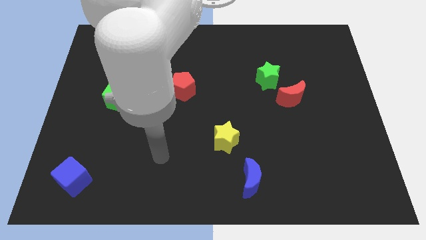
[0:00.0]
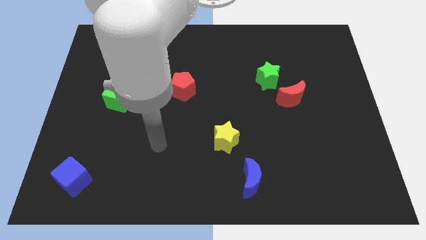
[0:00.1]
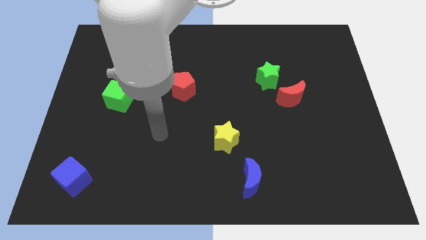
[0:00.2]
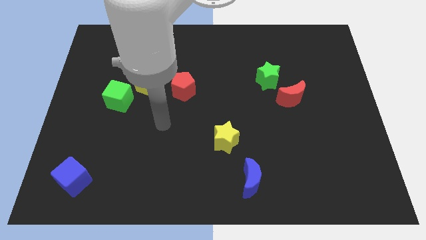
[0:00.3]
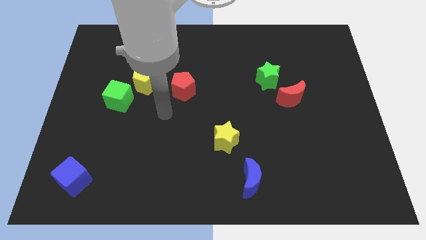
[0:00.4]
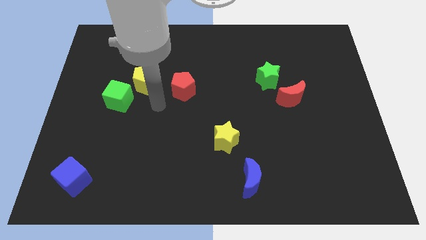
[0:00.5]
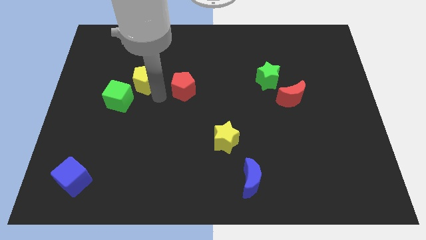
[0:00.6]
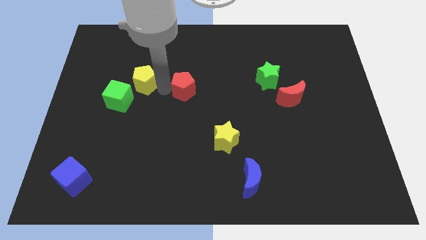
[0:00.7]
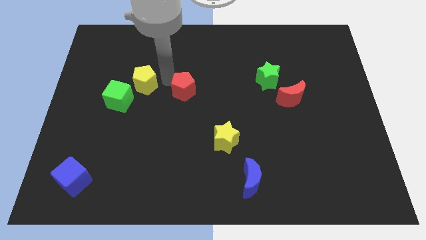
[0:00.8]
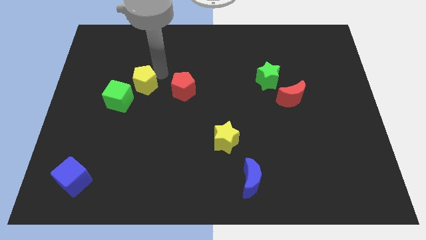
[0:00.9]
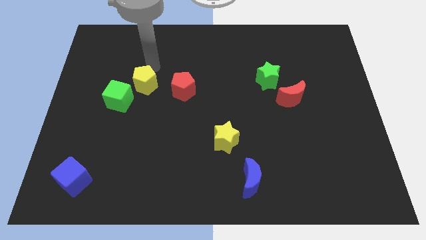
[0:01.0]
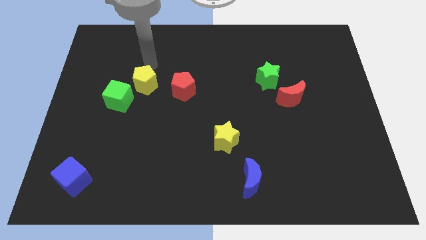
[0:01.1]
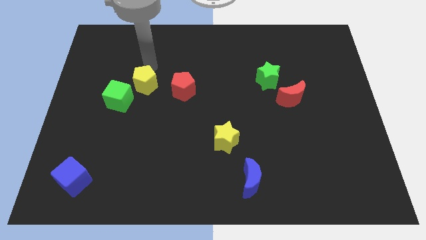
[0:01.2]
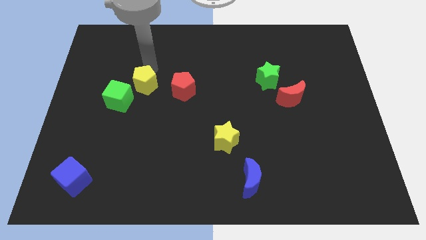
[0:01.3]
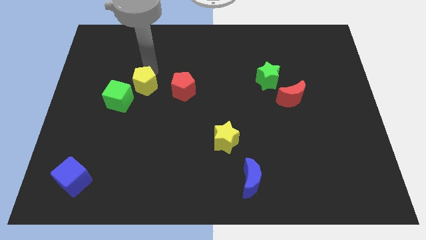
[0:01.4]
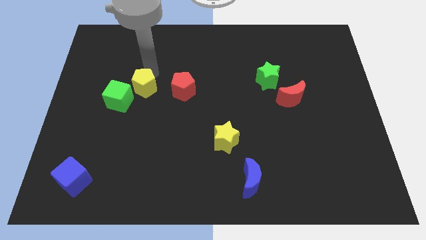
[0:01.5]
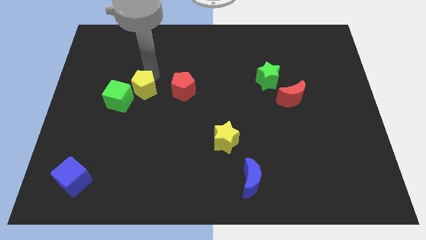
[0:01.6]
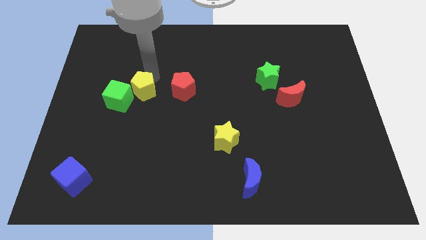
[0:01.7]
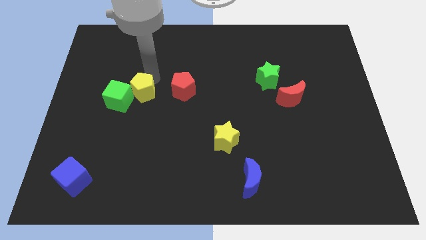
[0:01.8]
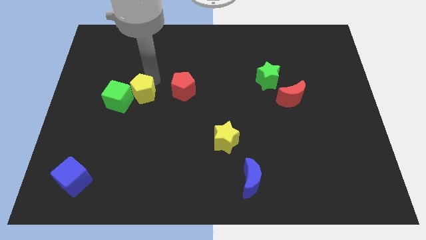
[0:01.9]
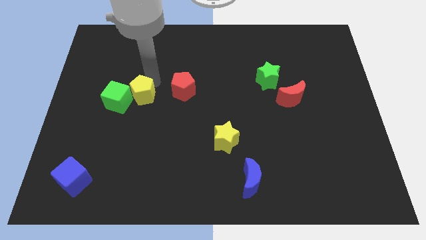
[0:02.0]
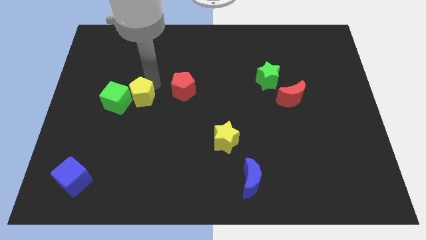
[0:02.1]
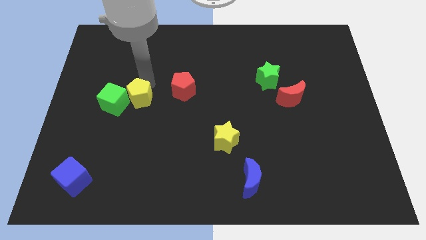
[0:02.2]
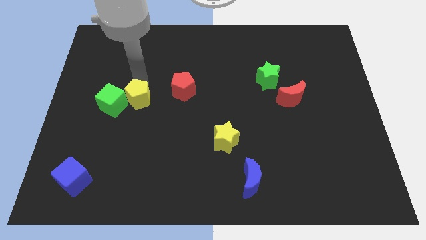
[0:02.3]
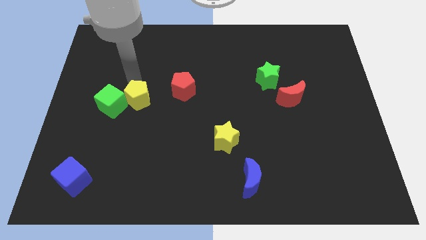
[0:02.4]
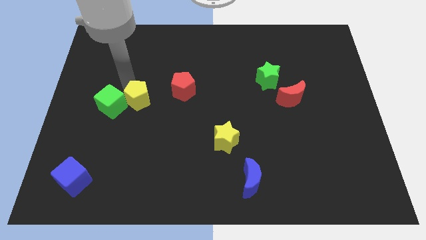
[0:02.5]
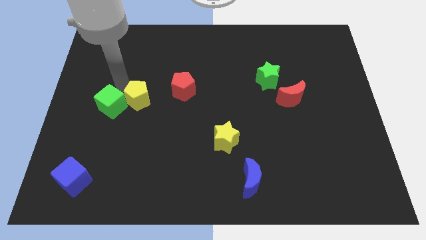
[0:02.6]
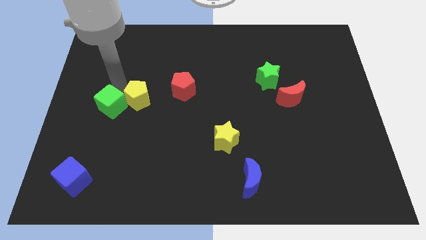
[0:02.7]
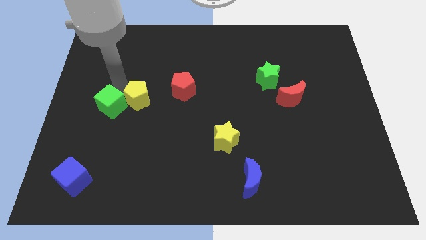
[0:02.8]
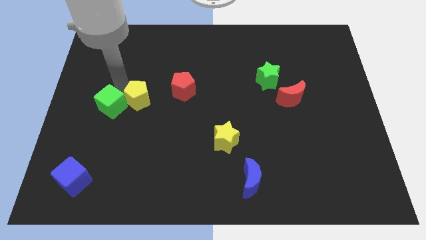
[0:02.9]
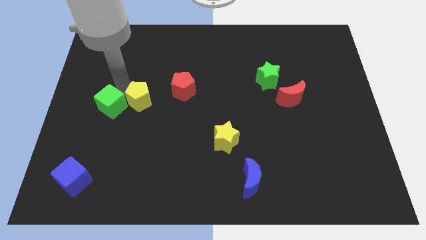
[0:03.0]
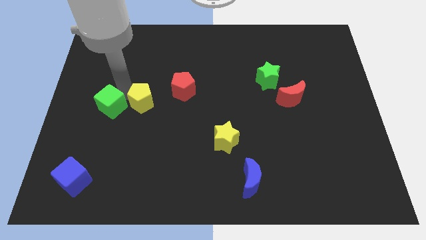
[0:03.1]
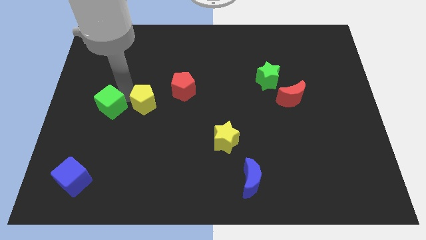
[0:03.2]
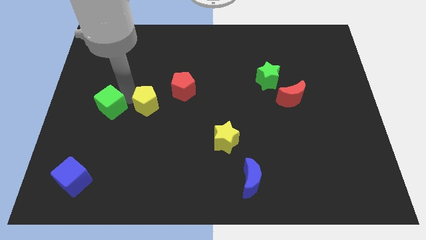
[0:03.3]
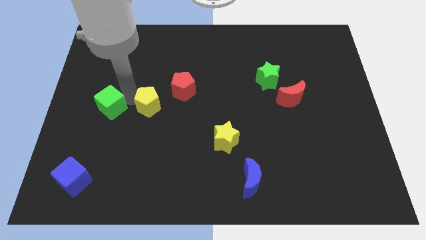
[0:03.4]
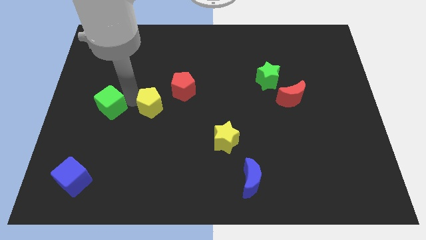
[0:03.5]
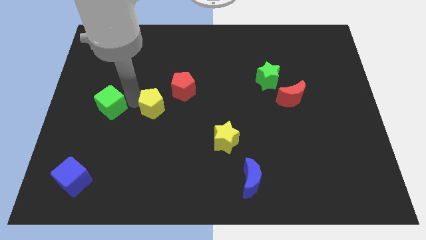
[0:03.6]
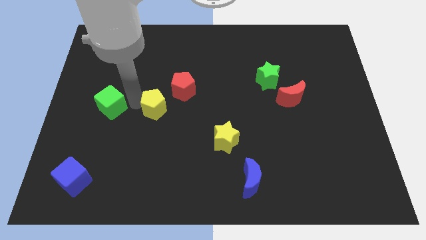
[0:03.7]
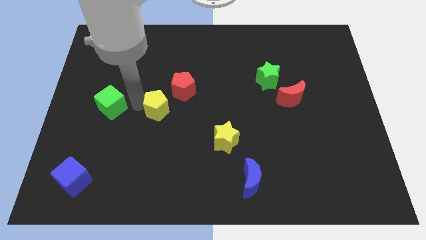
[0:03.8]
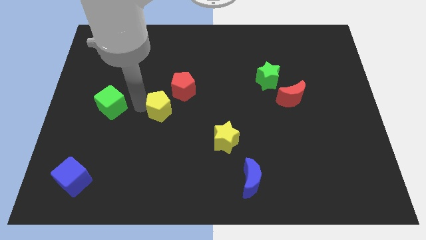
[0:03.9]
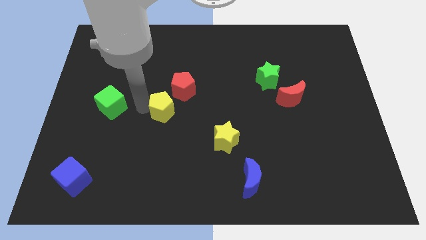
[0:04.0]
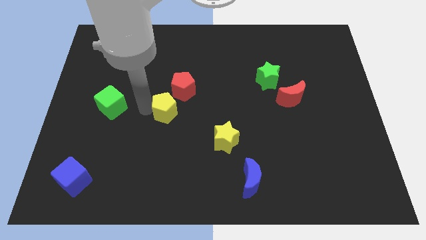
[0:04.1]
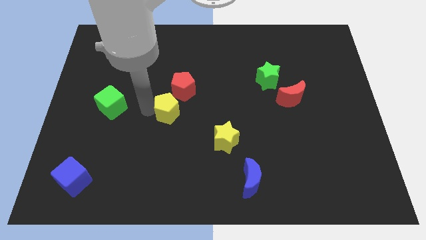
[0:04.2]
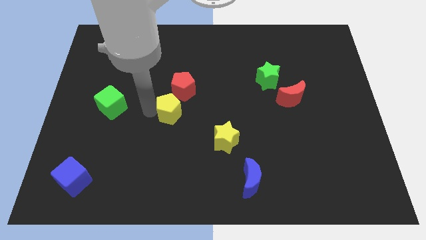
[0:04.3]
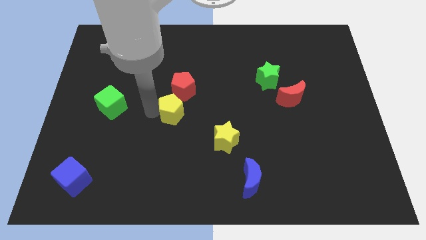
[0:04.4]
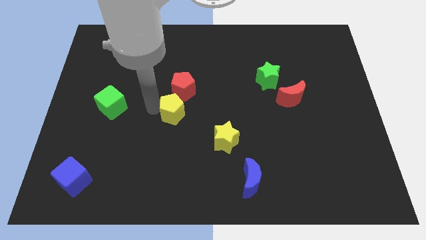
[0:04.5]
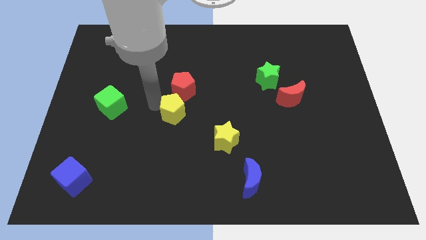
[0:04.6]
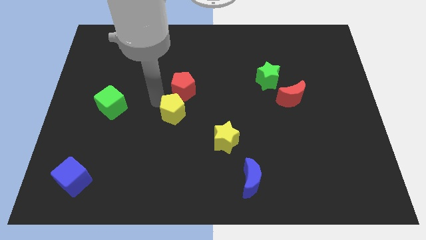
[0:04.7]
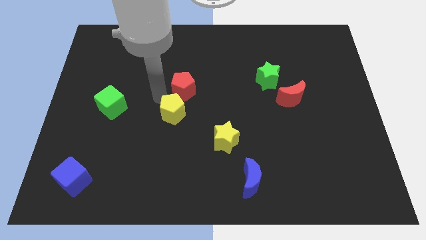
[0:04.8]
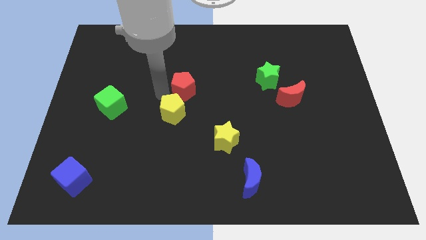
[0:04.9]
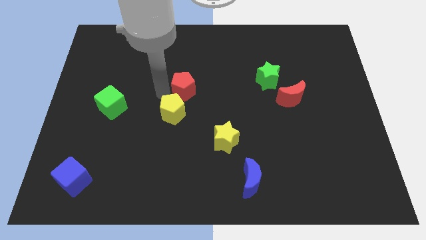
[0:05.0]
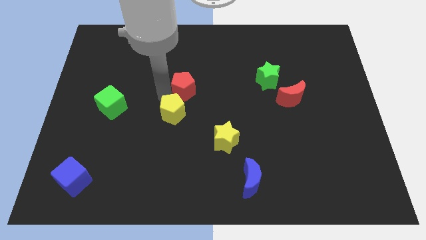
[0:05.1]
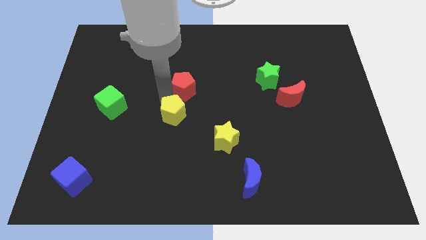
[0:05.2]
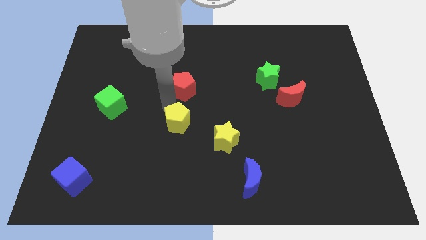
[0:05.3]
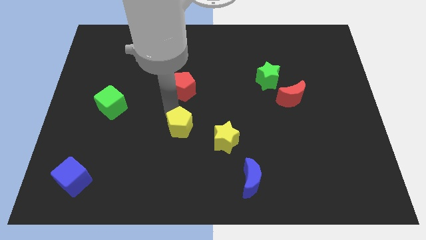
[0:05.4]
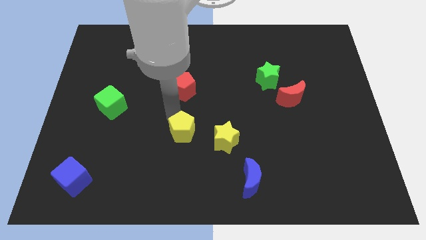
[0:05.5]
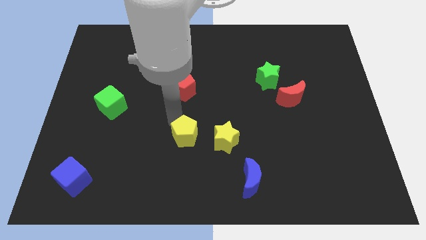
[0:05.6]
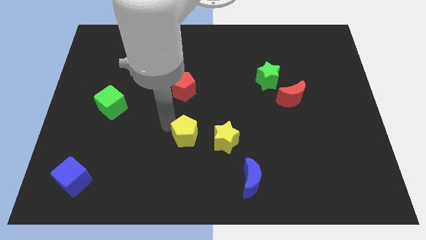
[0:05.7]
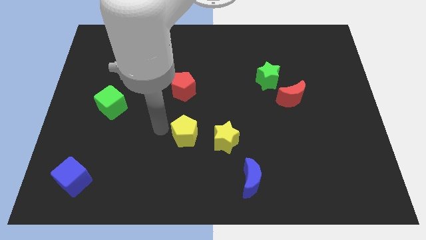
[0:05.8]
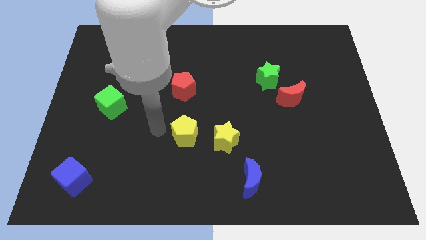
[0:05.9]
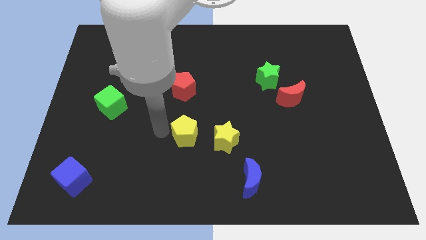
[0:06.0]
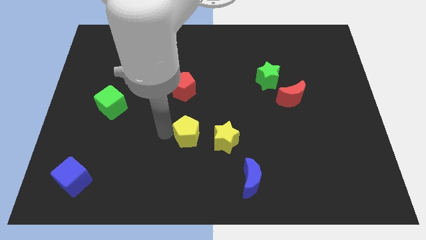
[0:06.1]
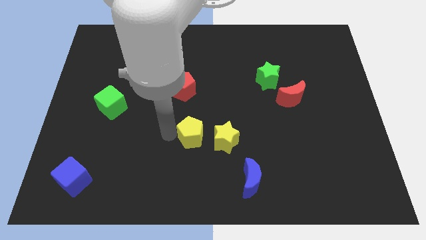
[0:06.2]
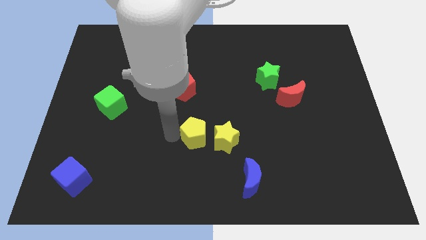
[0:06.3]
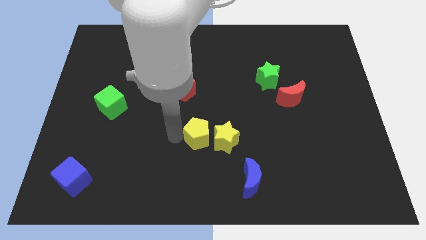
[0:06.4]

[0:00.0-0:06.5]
push the yellow pentagon towards the yellow star

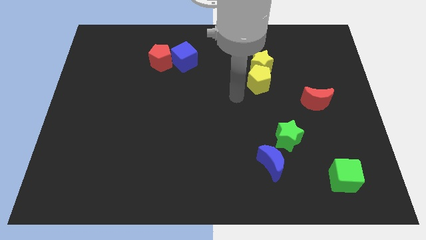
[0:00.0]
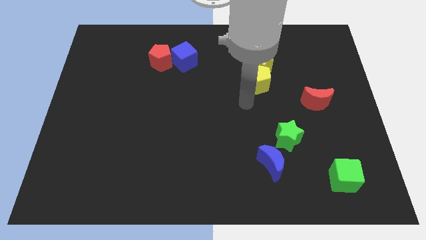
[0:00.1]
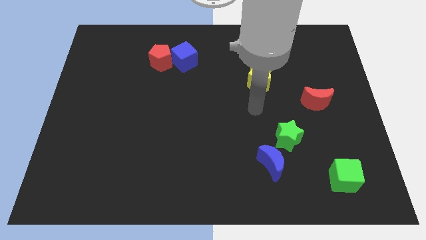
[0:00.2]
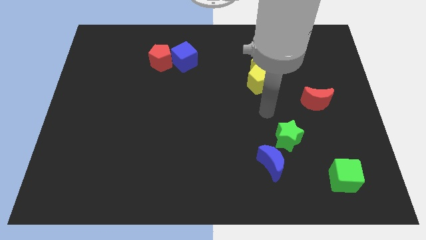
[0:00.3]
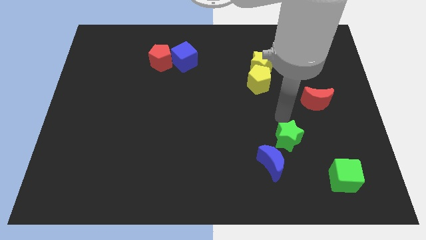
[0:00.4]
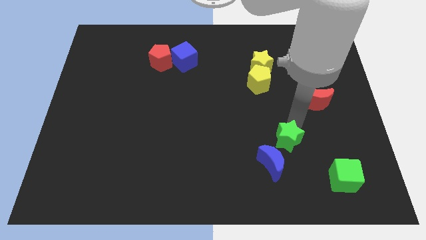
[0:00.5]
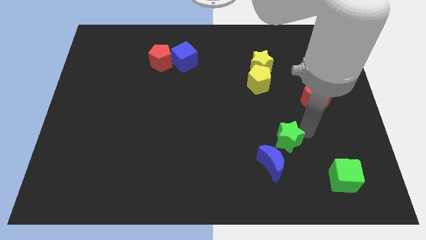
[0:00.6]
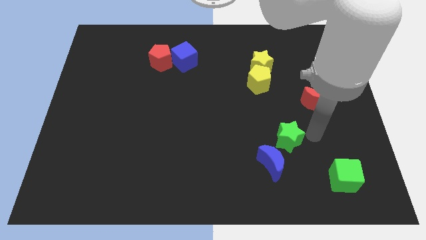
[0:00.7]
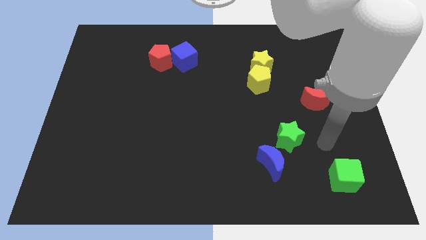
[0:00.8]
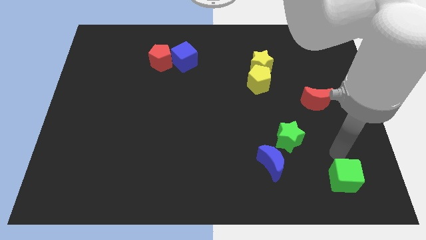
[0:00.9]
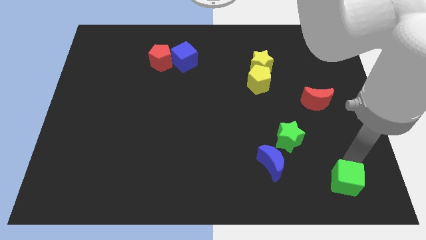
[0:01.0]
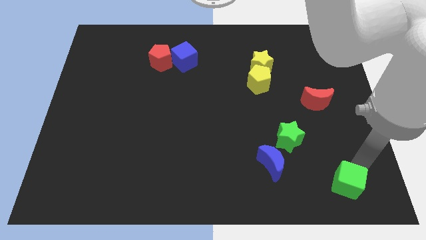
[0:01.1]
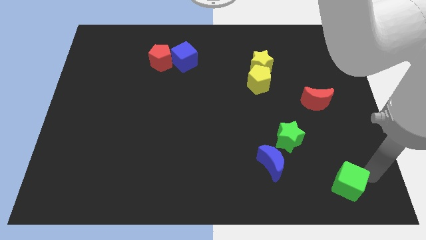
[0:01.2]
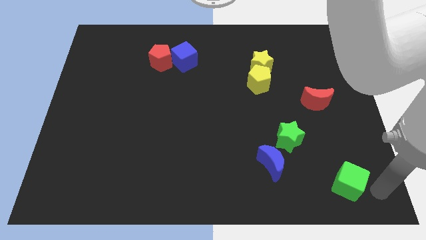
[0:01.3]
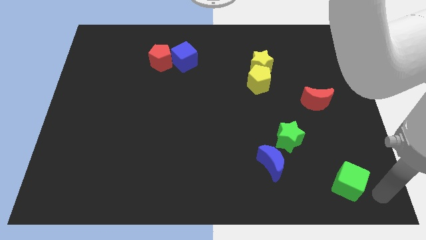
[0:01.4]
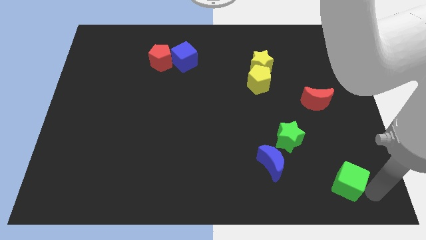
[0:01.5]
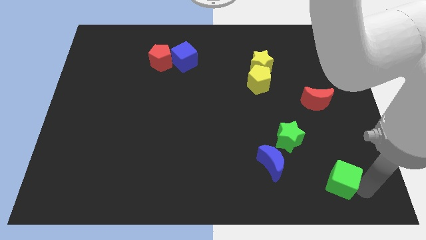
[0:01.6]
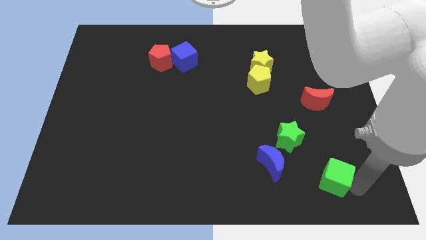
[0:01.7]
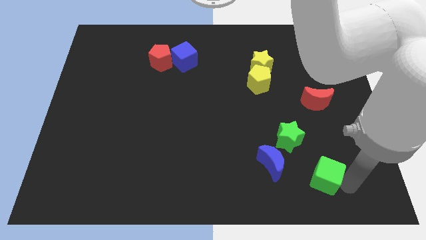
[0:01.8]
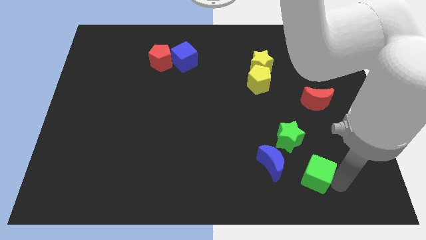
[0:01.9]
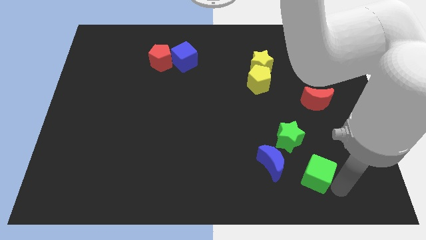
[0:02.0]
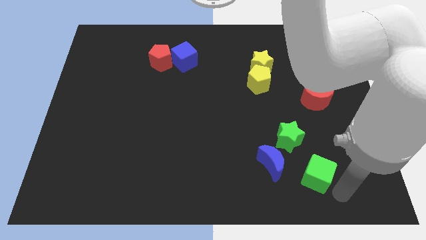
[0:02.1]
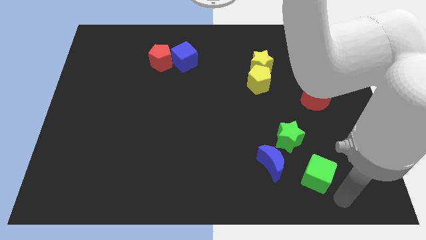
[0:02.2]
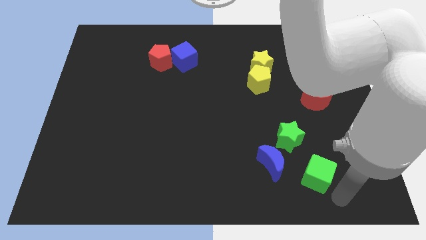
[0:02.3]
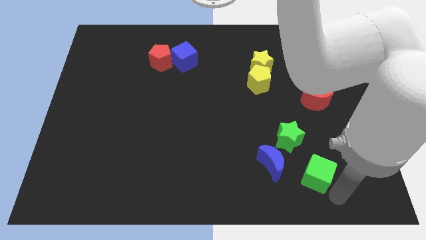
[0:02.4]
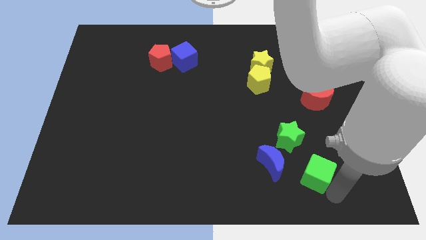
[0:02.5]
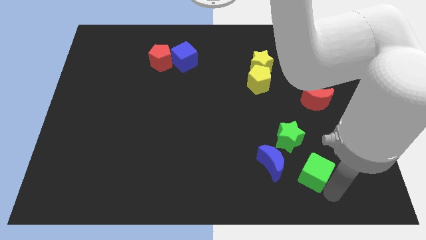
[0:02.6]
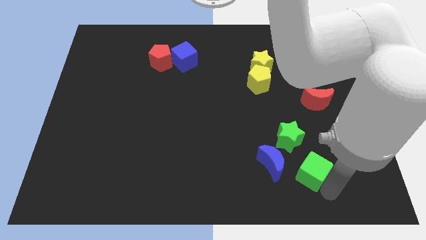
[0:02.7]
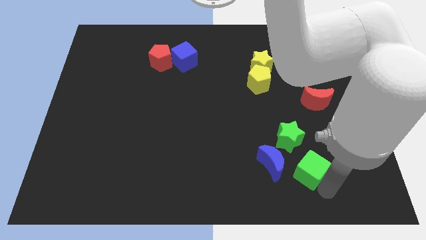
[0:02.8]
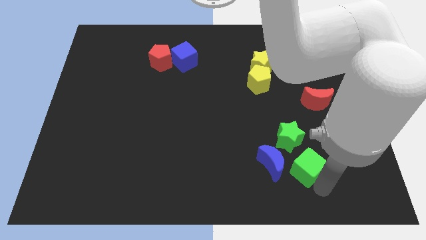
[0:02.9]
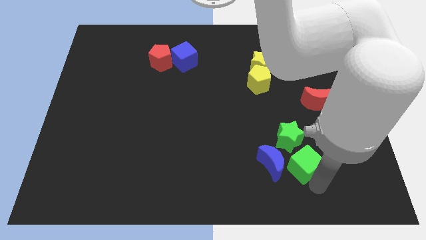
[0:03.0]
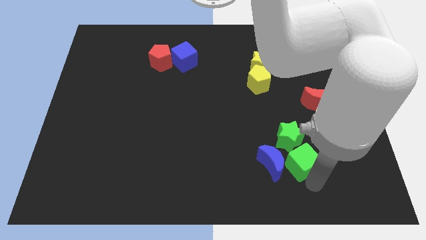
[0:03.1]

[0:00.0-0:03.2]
put the green cube to the green star
